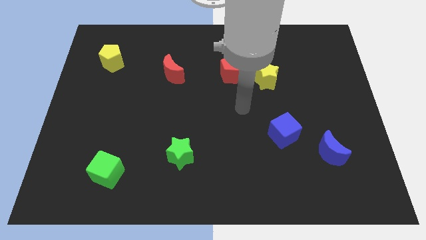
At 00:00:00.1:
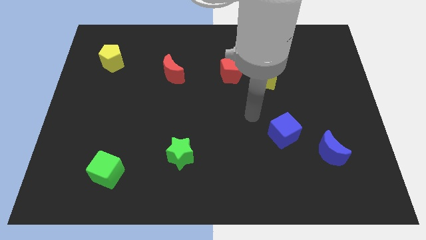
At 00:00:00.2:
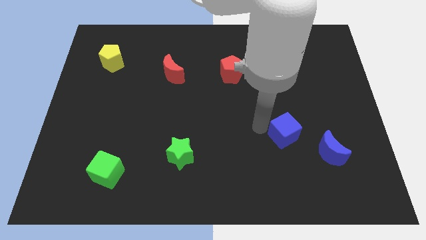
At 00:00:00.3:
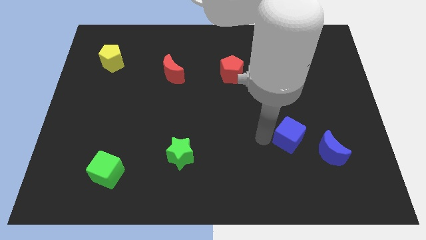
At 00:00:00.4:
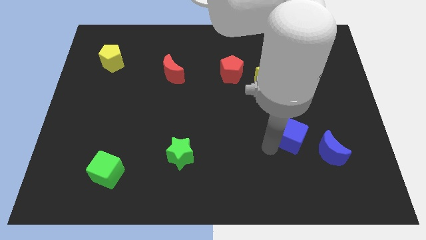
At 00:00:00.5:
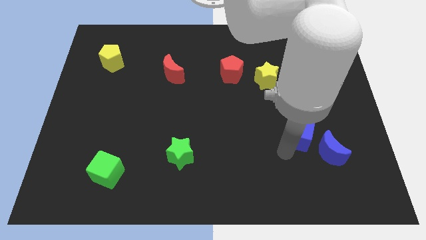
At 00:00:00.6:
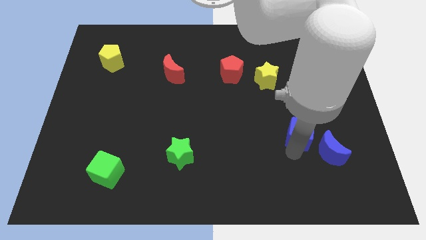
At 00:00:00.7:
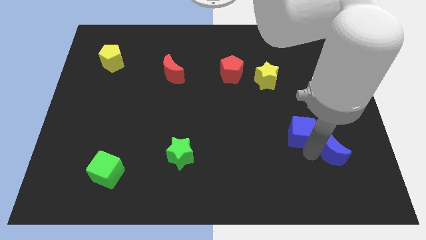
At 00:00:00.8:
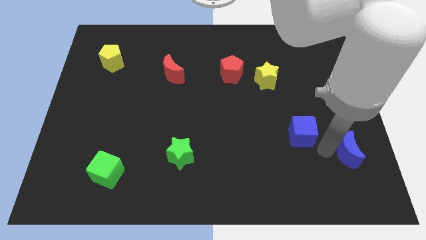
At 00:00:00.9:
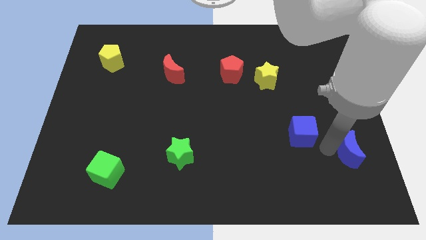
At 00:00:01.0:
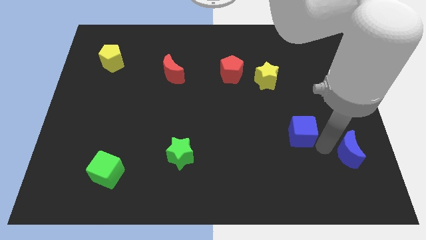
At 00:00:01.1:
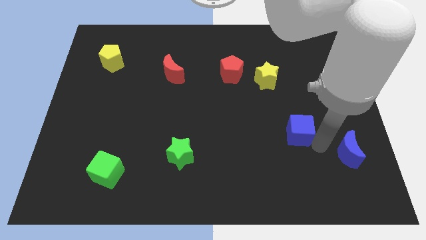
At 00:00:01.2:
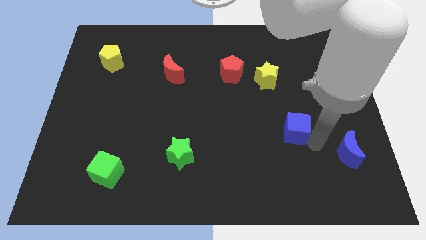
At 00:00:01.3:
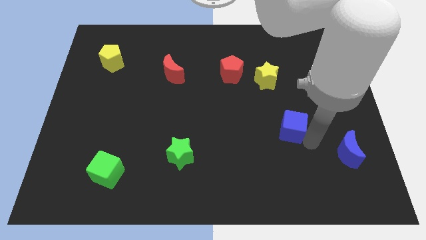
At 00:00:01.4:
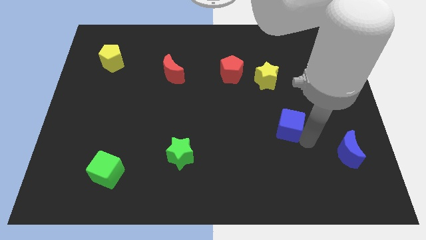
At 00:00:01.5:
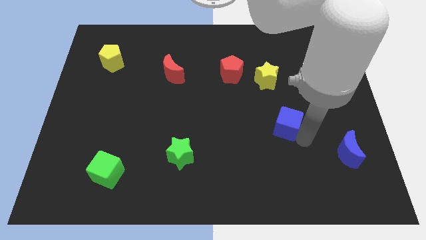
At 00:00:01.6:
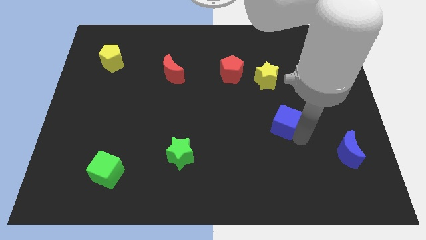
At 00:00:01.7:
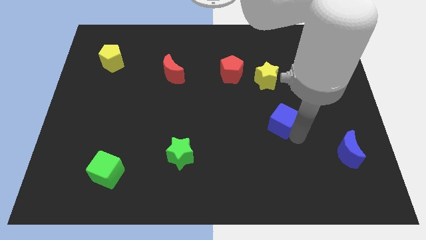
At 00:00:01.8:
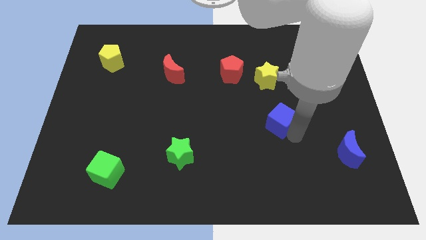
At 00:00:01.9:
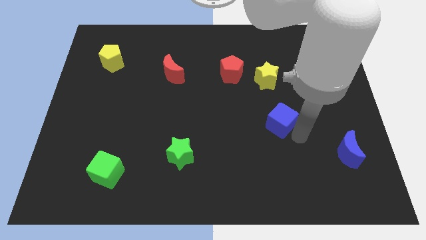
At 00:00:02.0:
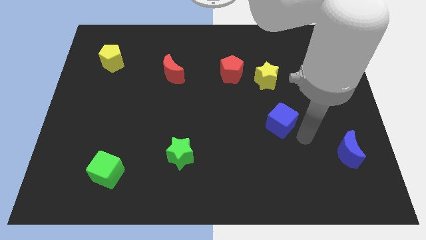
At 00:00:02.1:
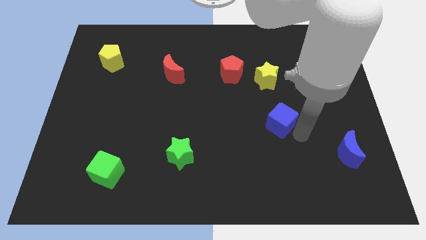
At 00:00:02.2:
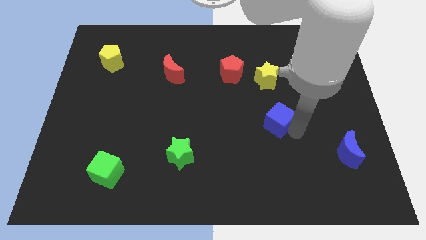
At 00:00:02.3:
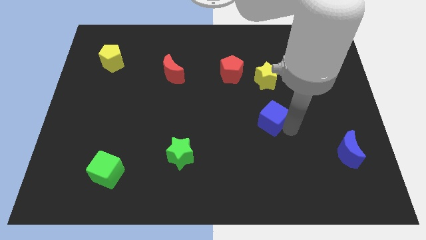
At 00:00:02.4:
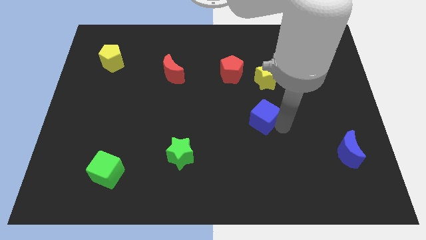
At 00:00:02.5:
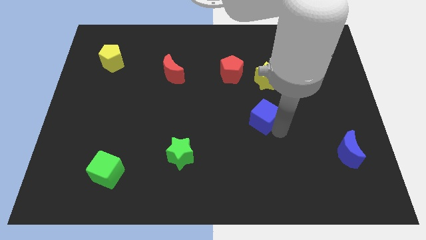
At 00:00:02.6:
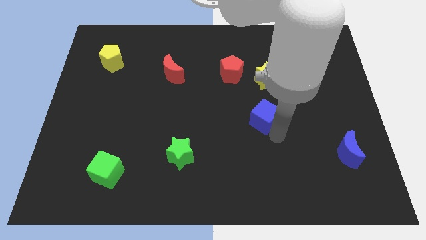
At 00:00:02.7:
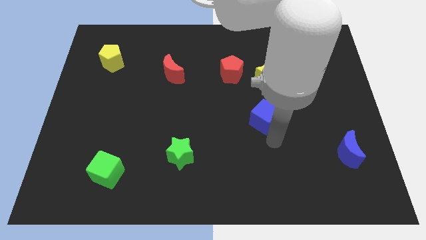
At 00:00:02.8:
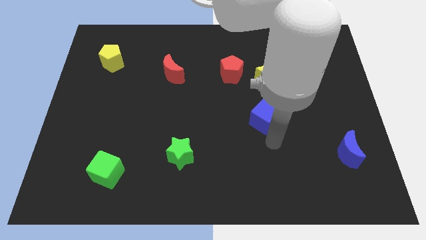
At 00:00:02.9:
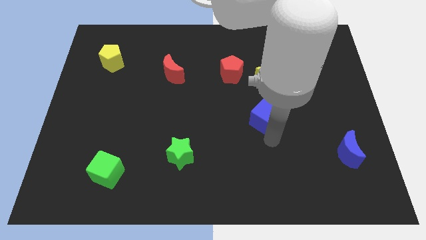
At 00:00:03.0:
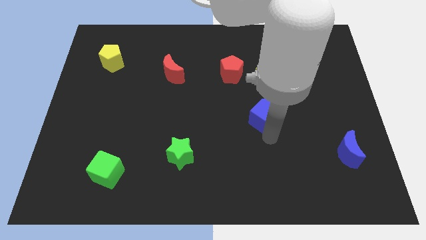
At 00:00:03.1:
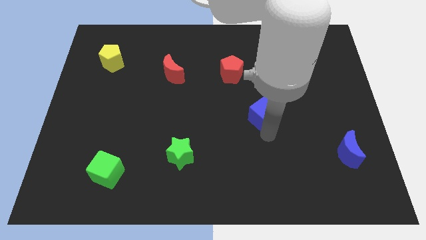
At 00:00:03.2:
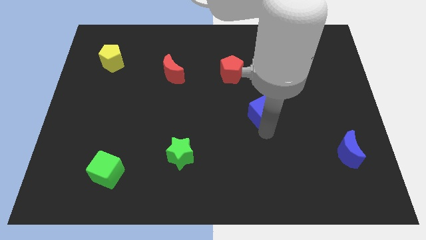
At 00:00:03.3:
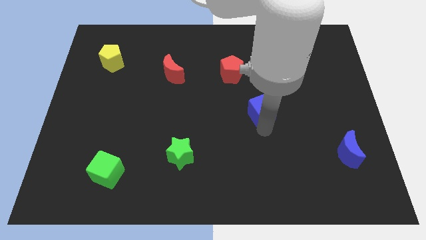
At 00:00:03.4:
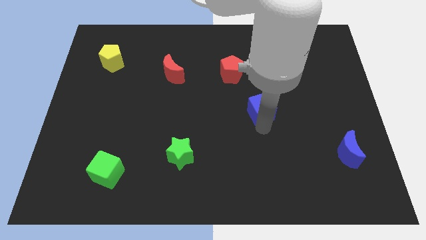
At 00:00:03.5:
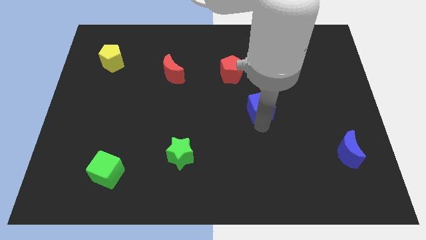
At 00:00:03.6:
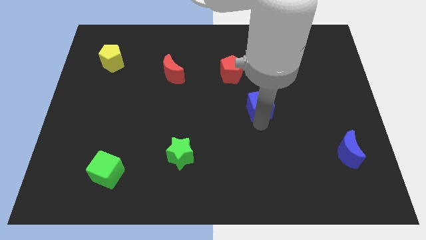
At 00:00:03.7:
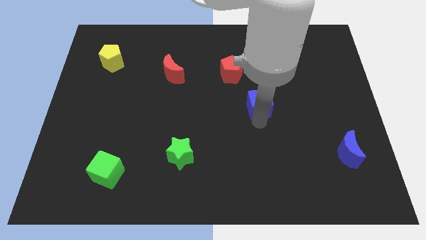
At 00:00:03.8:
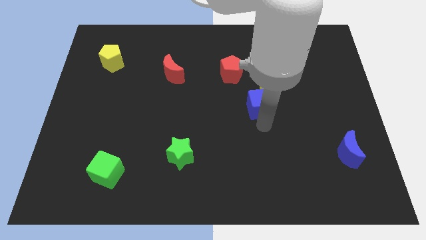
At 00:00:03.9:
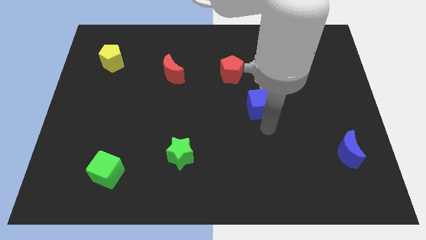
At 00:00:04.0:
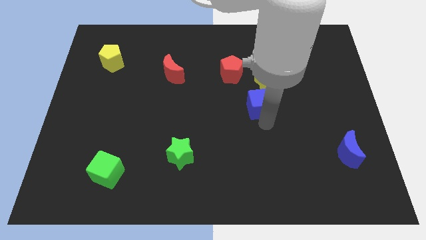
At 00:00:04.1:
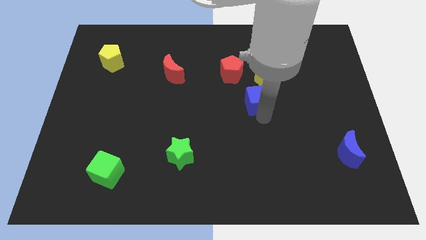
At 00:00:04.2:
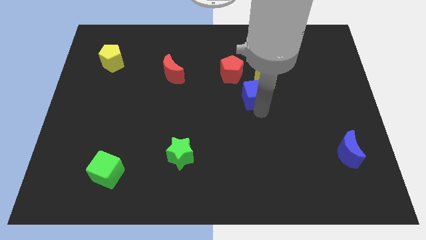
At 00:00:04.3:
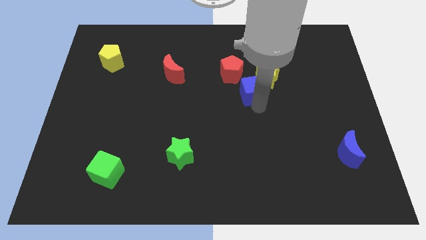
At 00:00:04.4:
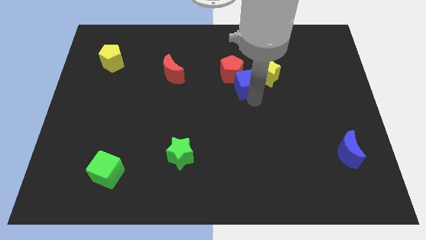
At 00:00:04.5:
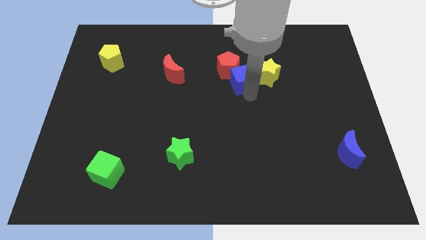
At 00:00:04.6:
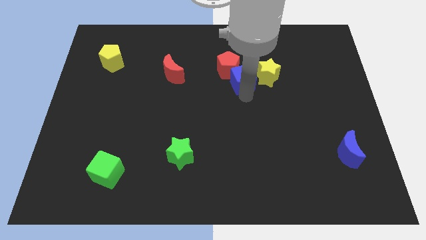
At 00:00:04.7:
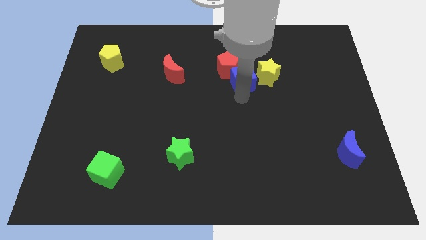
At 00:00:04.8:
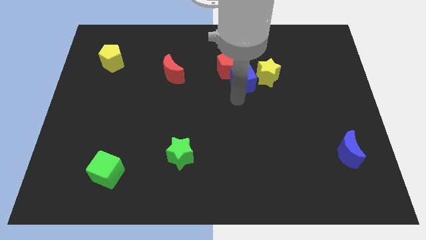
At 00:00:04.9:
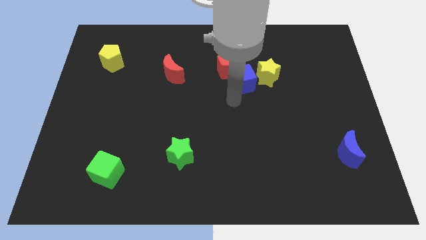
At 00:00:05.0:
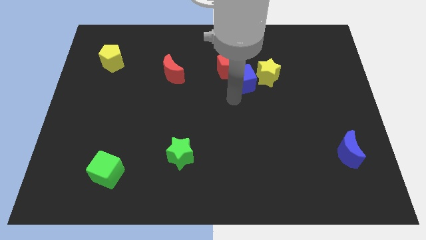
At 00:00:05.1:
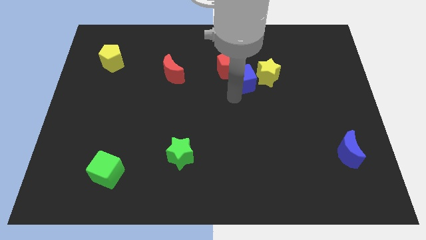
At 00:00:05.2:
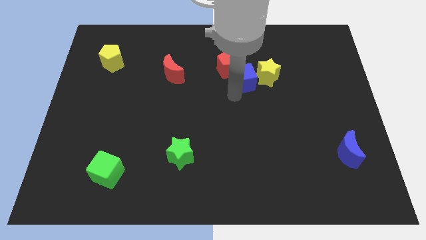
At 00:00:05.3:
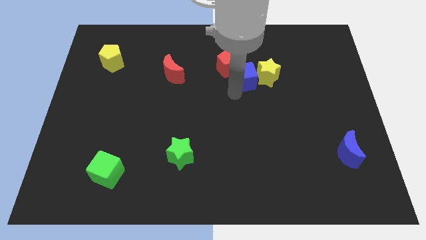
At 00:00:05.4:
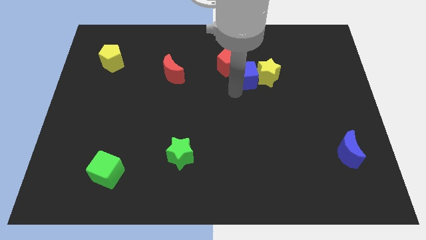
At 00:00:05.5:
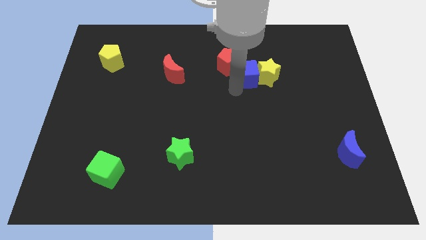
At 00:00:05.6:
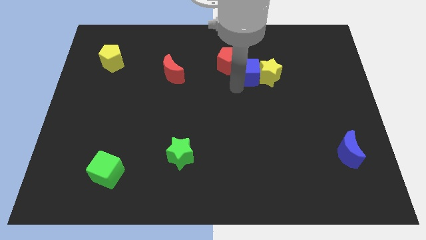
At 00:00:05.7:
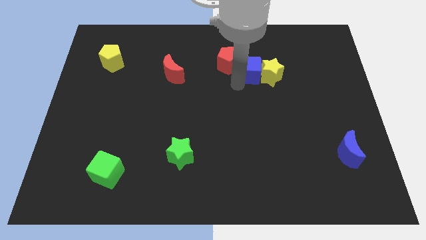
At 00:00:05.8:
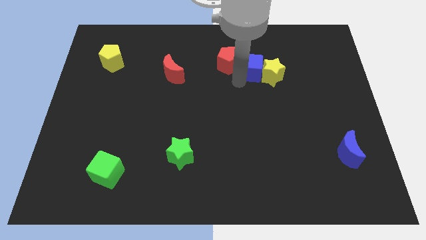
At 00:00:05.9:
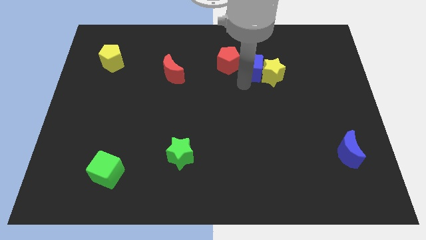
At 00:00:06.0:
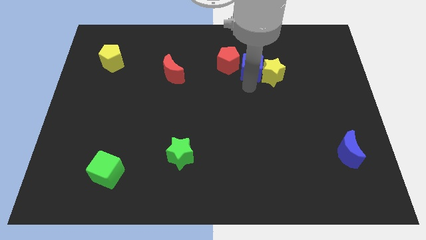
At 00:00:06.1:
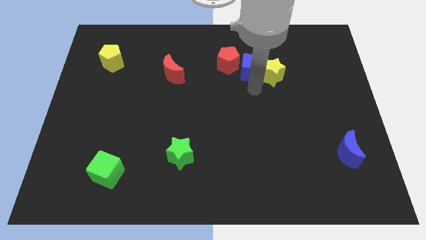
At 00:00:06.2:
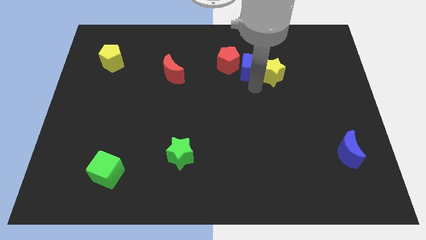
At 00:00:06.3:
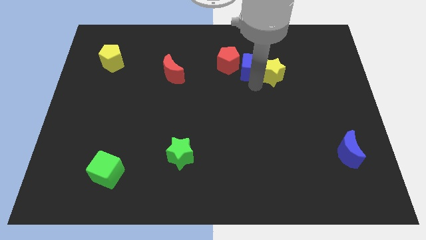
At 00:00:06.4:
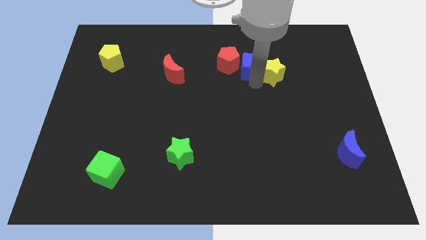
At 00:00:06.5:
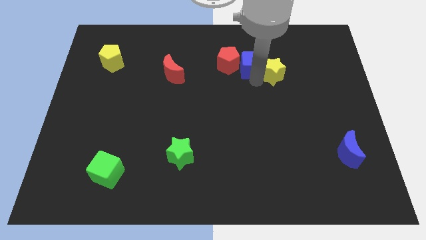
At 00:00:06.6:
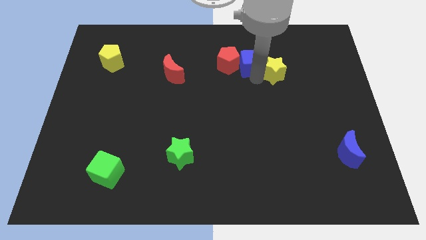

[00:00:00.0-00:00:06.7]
slide the blue cube to the top right side of the red pentagon
